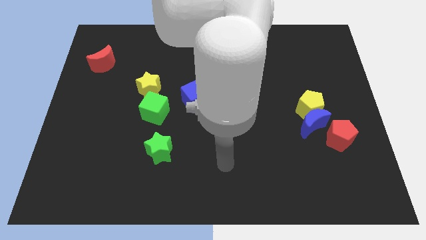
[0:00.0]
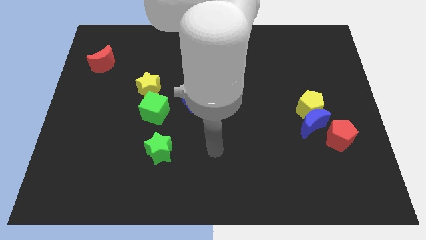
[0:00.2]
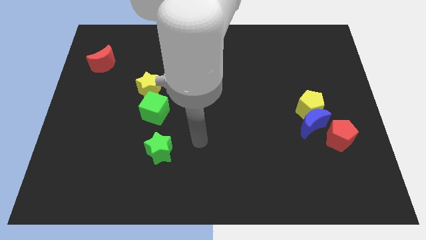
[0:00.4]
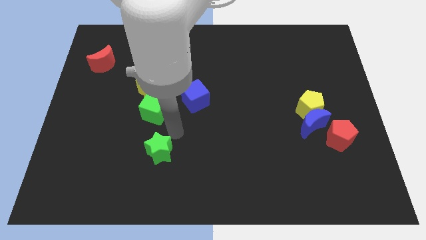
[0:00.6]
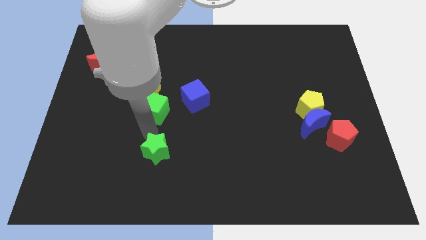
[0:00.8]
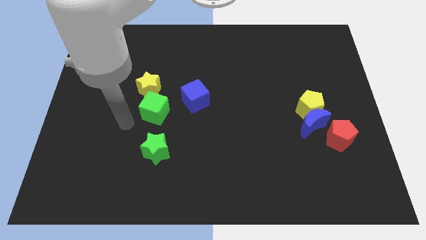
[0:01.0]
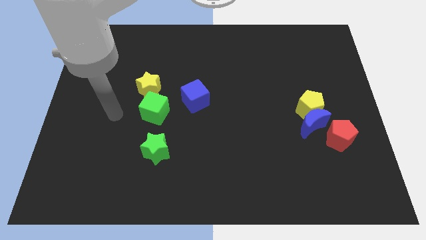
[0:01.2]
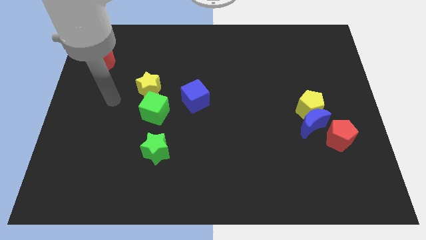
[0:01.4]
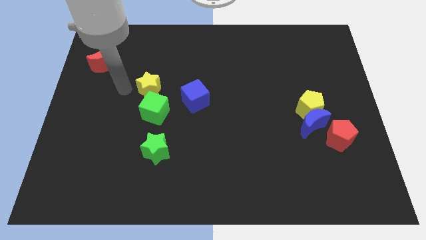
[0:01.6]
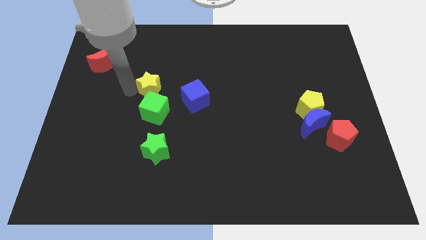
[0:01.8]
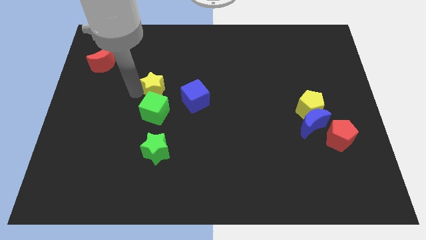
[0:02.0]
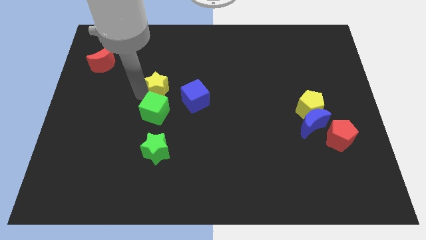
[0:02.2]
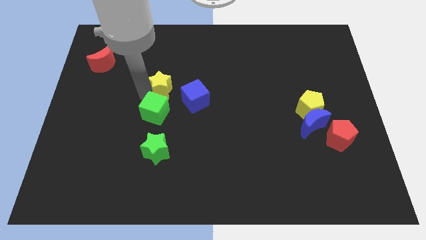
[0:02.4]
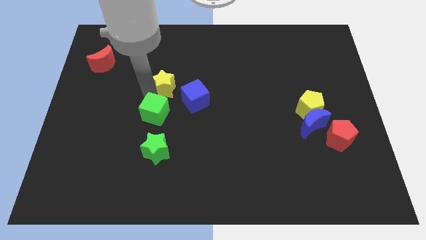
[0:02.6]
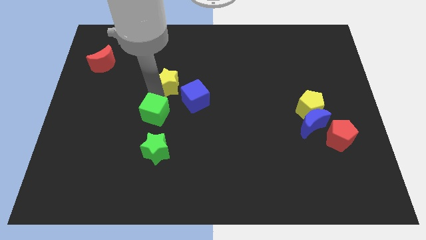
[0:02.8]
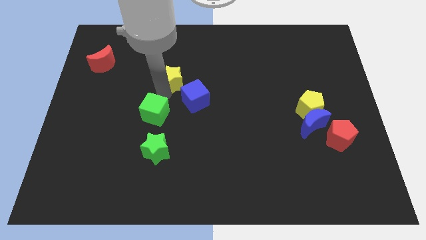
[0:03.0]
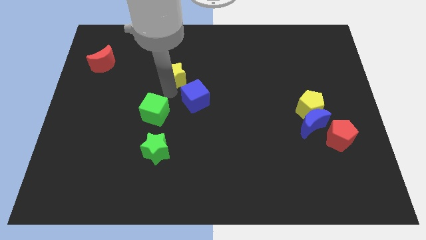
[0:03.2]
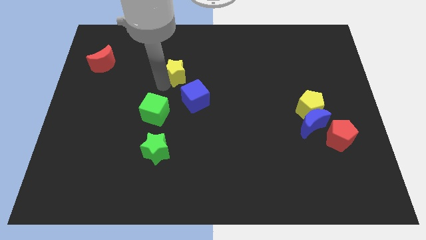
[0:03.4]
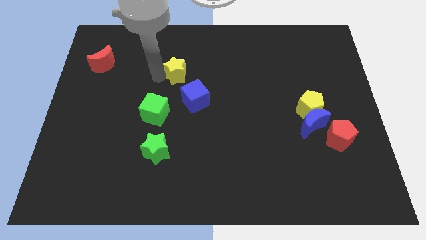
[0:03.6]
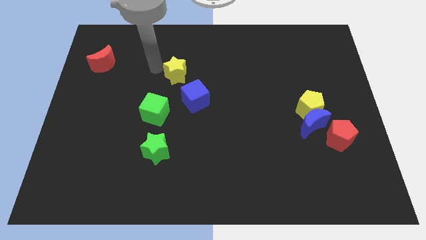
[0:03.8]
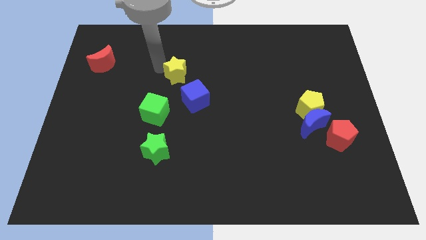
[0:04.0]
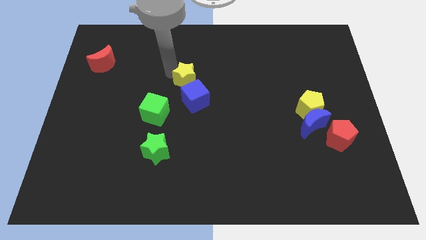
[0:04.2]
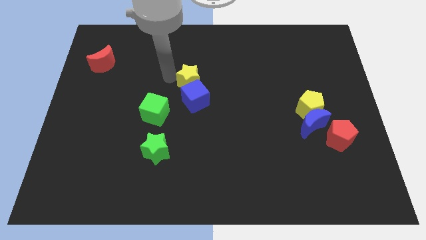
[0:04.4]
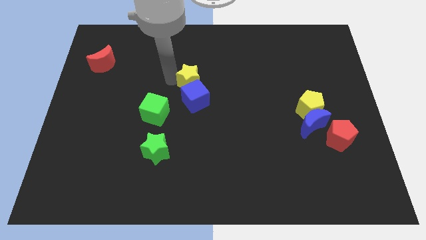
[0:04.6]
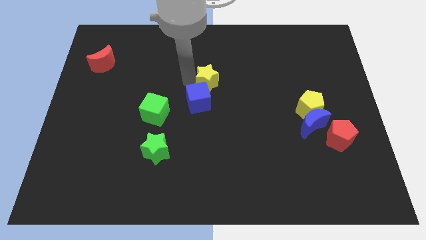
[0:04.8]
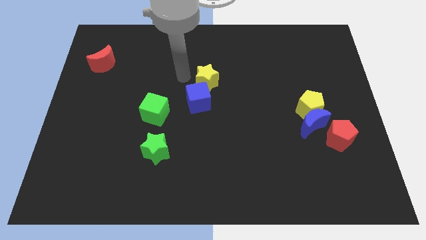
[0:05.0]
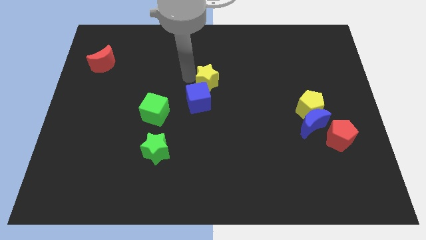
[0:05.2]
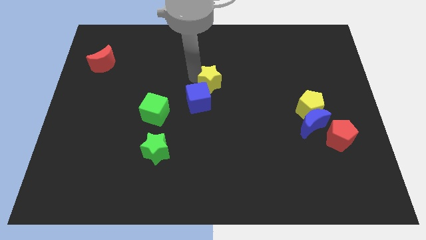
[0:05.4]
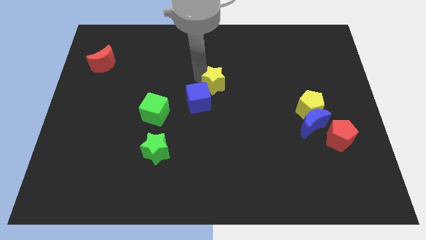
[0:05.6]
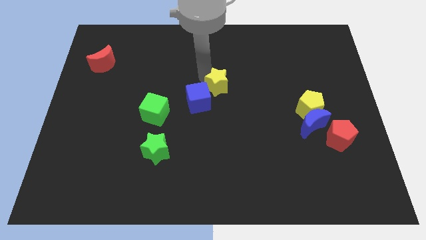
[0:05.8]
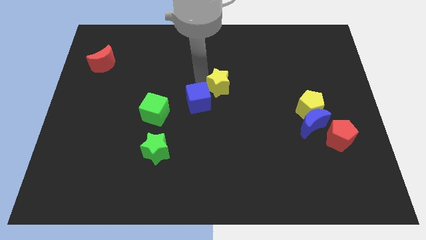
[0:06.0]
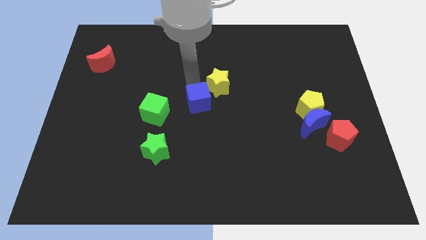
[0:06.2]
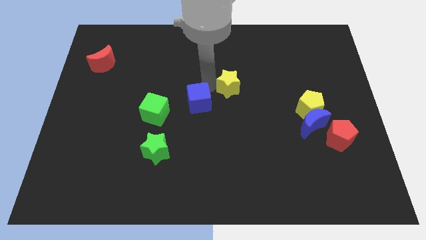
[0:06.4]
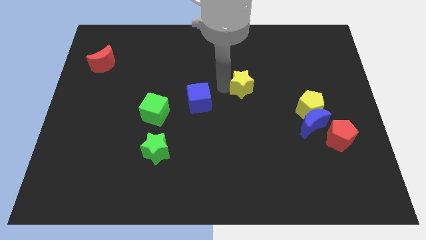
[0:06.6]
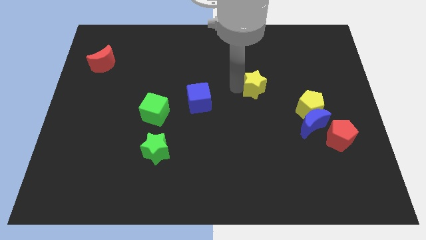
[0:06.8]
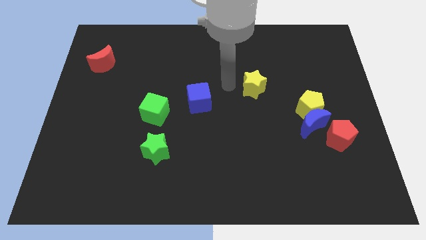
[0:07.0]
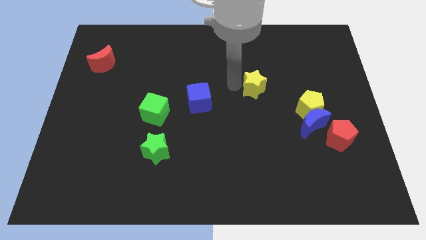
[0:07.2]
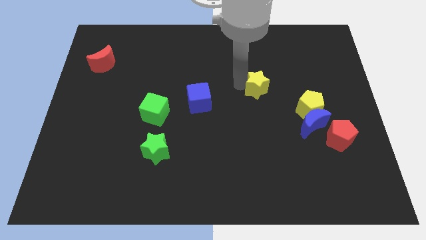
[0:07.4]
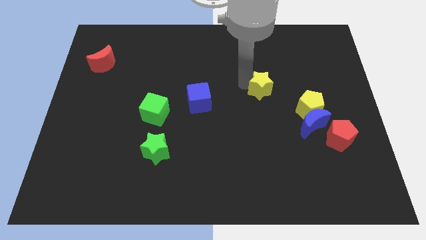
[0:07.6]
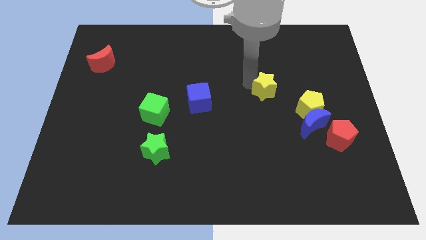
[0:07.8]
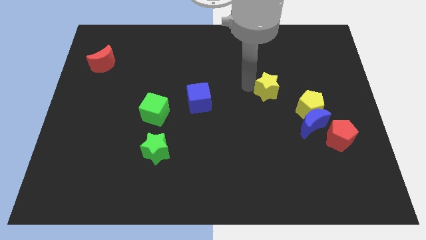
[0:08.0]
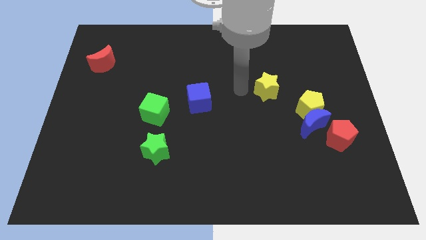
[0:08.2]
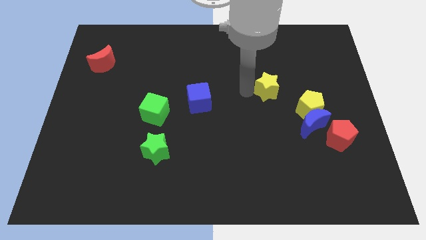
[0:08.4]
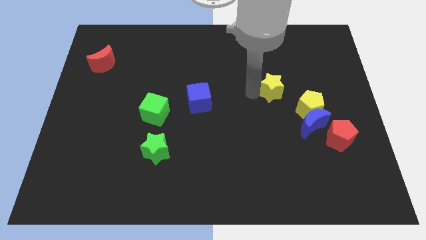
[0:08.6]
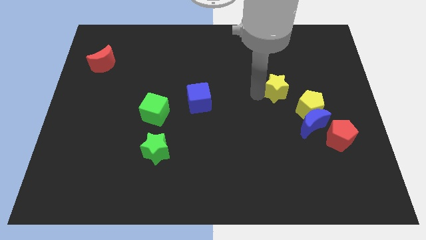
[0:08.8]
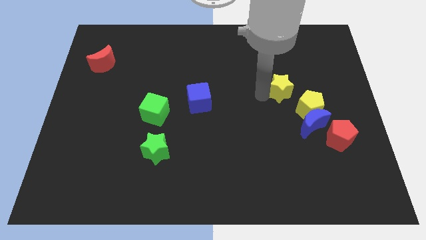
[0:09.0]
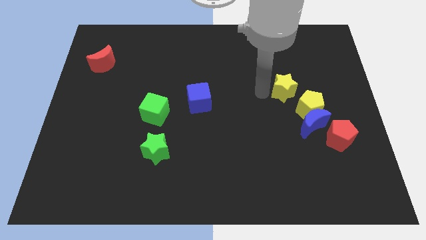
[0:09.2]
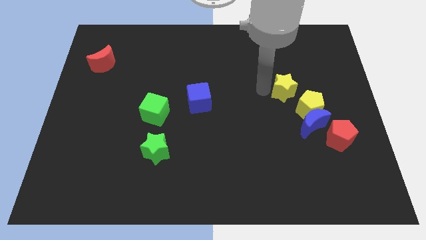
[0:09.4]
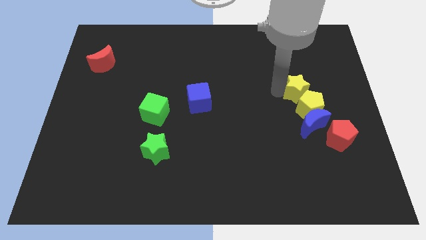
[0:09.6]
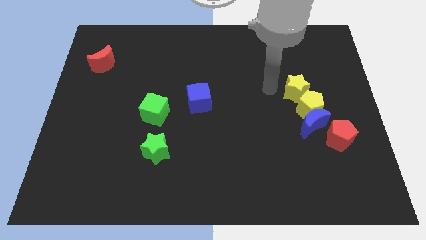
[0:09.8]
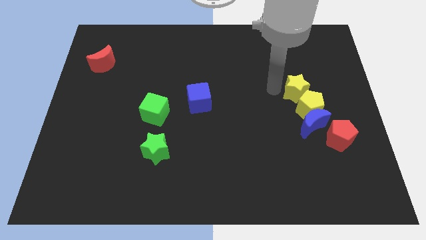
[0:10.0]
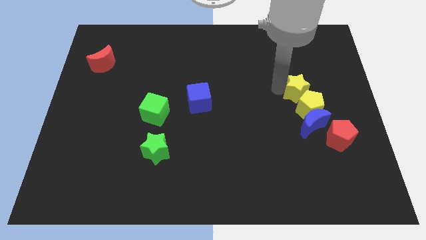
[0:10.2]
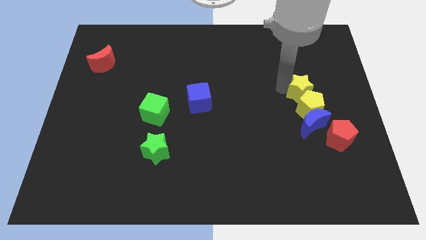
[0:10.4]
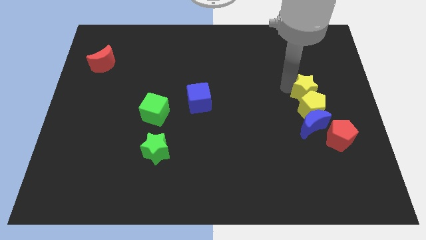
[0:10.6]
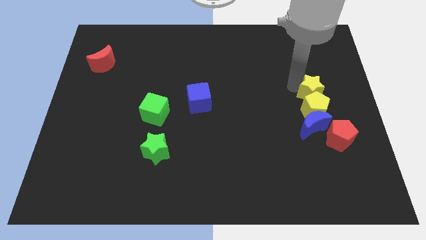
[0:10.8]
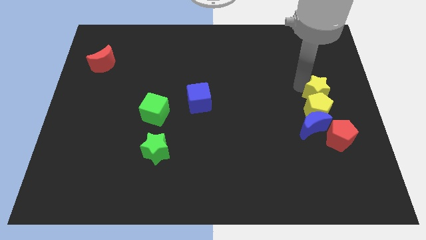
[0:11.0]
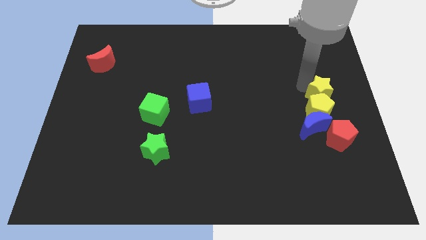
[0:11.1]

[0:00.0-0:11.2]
put the yellow star to the center right
